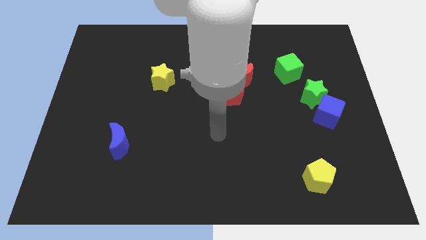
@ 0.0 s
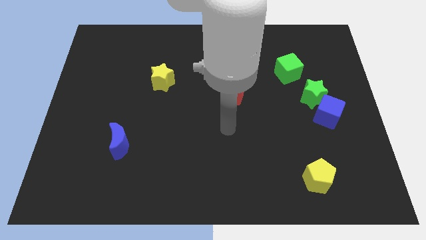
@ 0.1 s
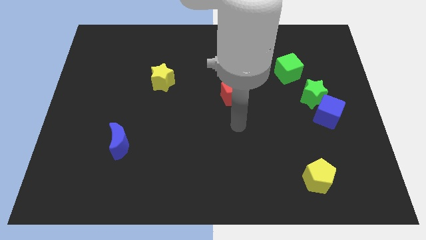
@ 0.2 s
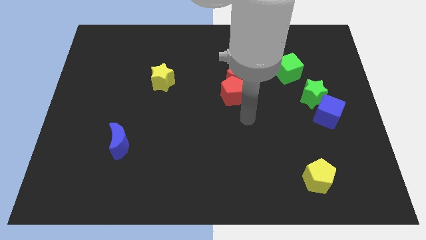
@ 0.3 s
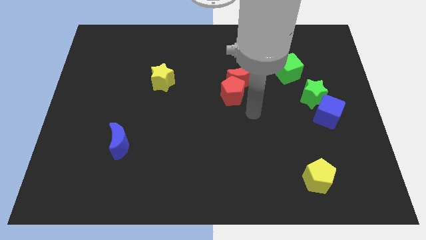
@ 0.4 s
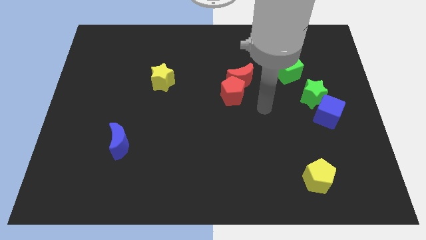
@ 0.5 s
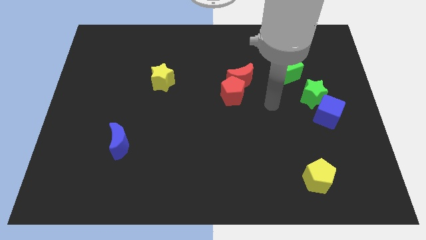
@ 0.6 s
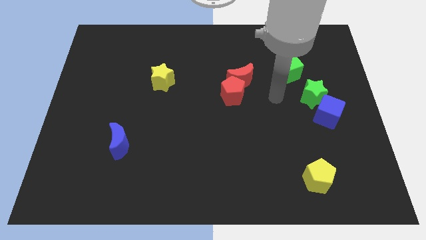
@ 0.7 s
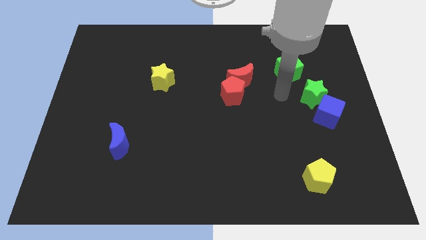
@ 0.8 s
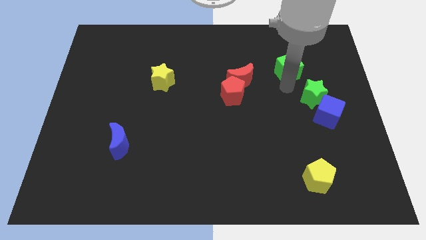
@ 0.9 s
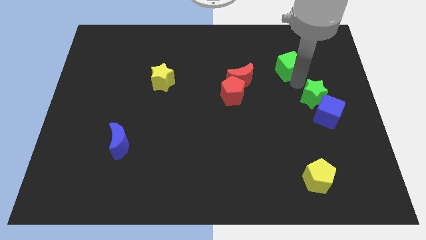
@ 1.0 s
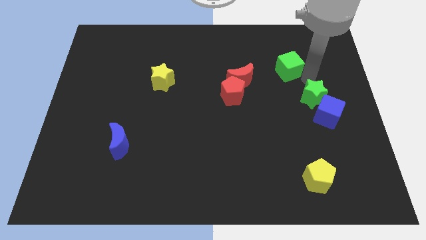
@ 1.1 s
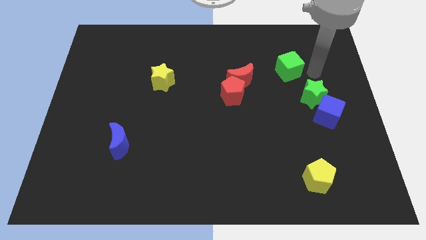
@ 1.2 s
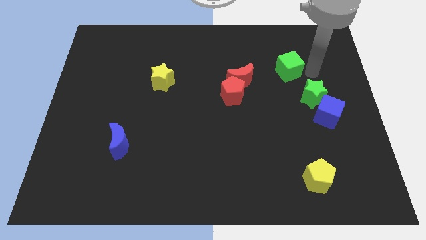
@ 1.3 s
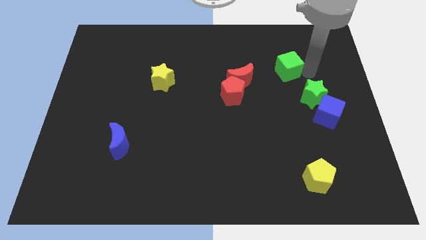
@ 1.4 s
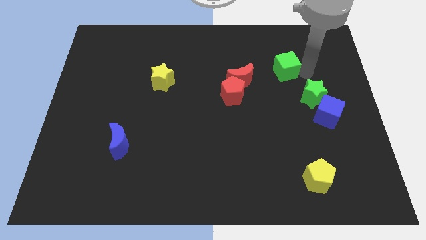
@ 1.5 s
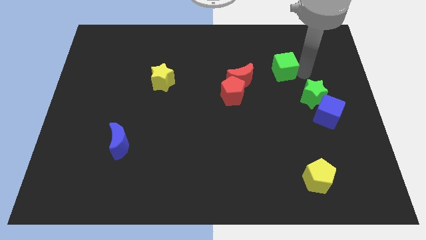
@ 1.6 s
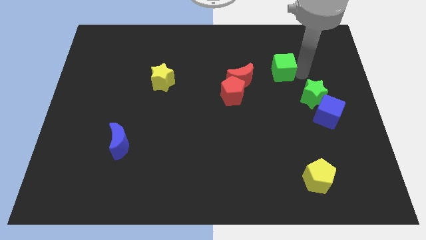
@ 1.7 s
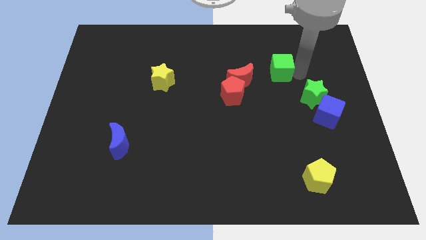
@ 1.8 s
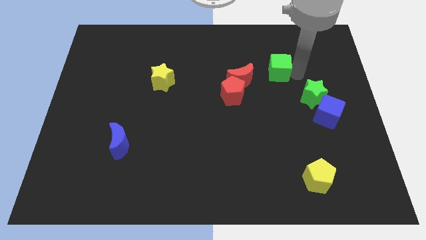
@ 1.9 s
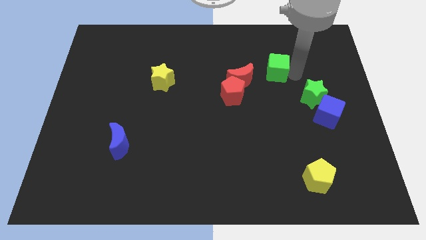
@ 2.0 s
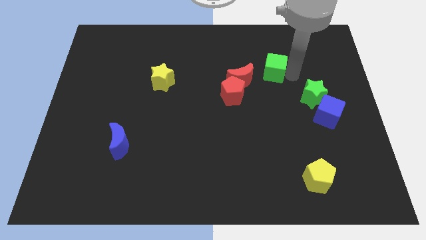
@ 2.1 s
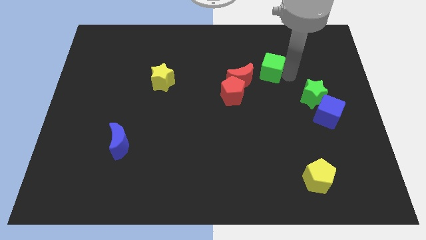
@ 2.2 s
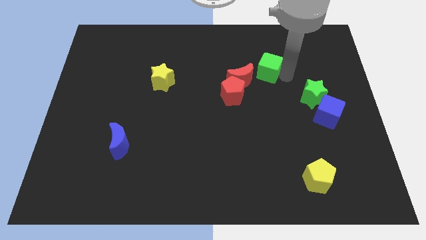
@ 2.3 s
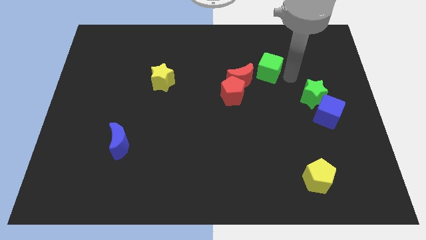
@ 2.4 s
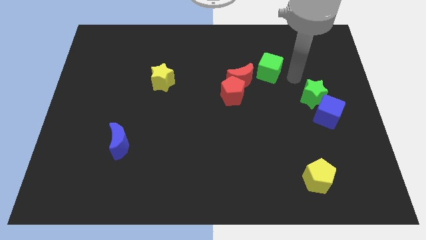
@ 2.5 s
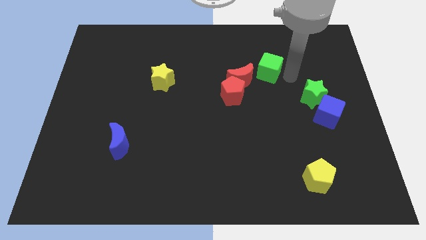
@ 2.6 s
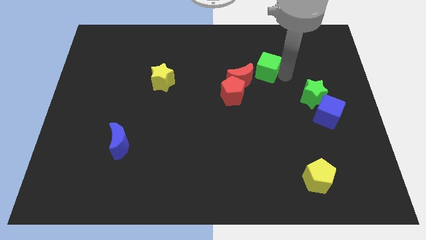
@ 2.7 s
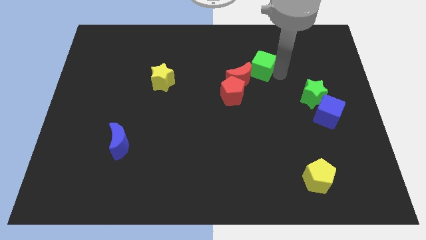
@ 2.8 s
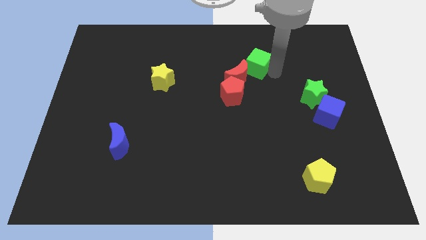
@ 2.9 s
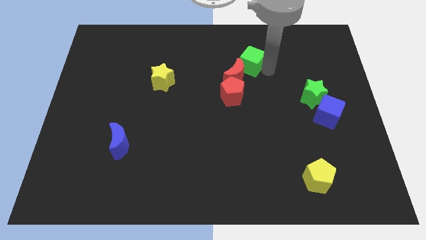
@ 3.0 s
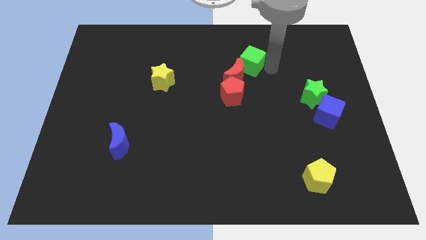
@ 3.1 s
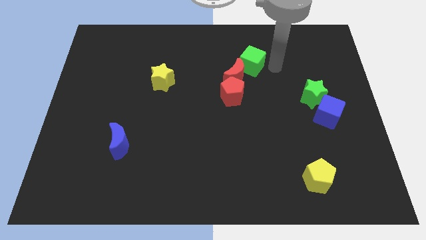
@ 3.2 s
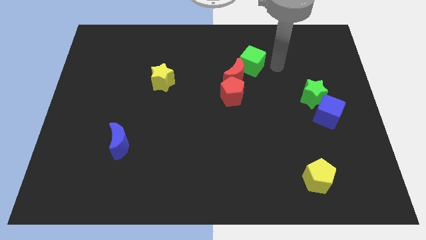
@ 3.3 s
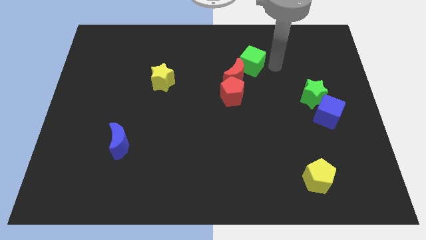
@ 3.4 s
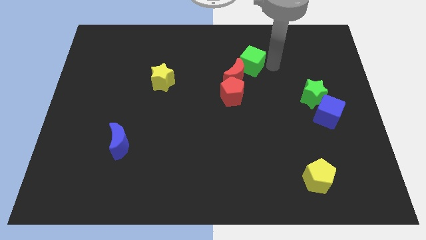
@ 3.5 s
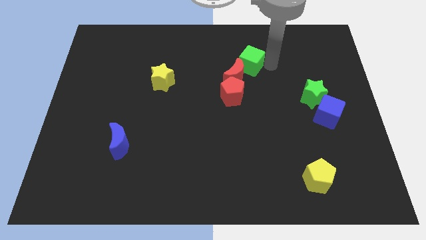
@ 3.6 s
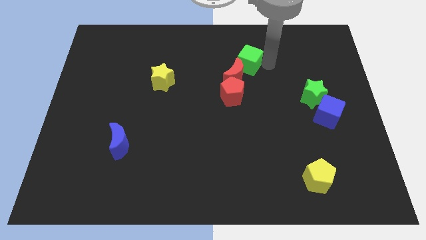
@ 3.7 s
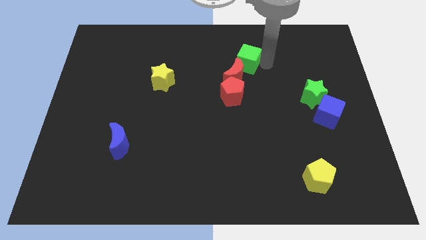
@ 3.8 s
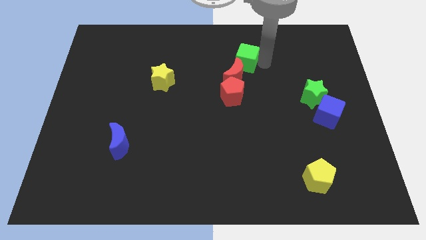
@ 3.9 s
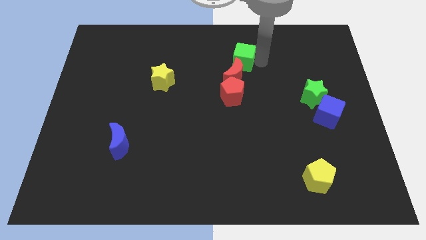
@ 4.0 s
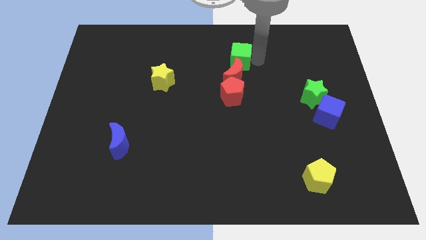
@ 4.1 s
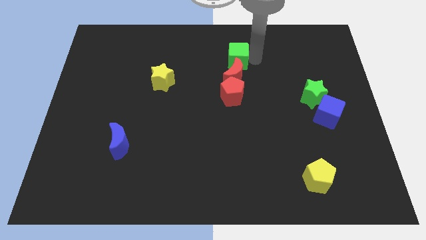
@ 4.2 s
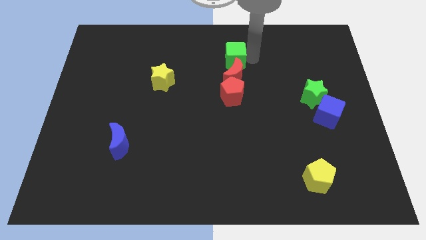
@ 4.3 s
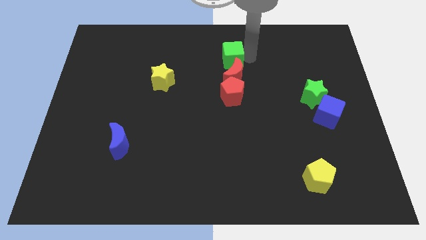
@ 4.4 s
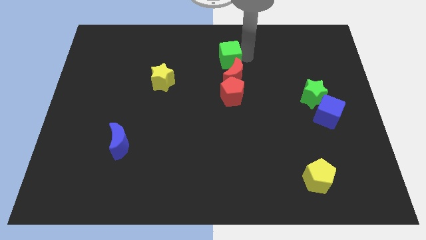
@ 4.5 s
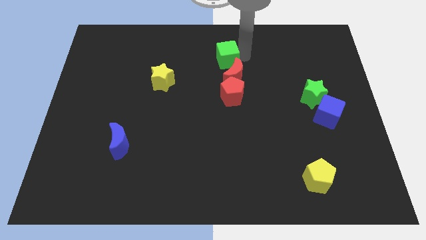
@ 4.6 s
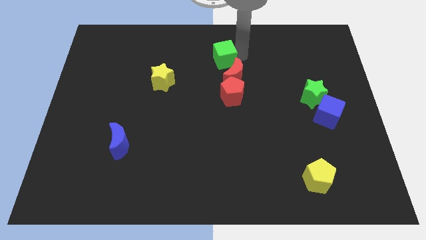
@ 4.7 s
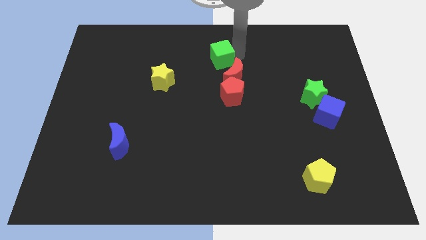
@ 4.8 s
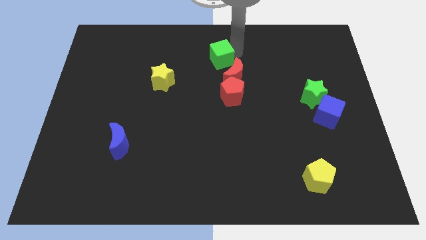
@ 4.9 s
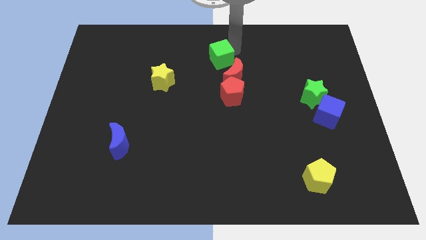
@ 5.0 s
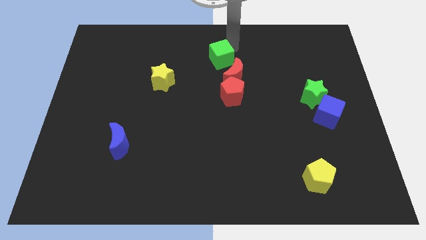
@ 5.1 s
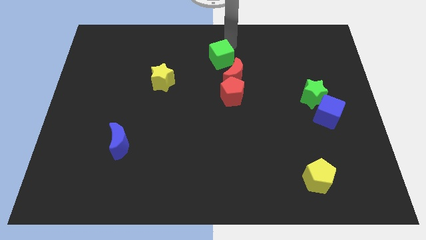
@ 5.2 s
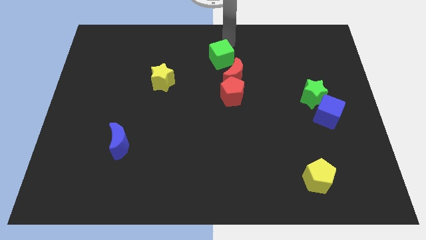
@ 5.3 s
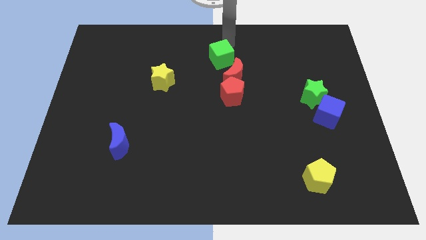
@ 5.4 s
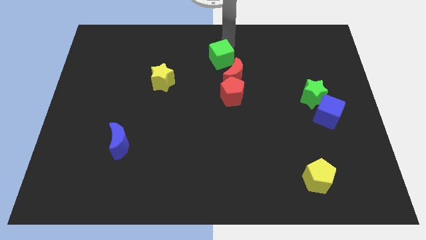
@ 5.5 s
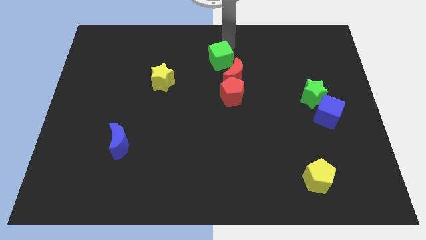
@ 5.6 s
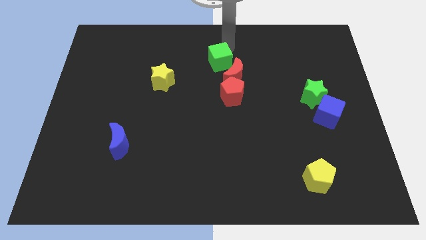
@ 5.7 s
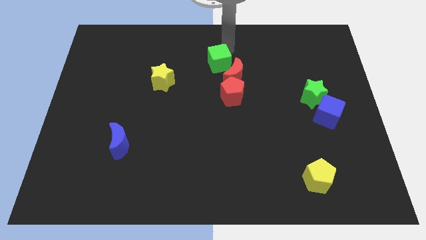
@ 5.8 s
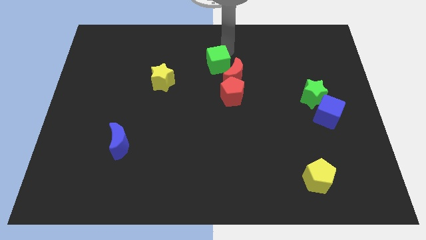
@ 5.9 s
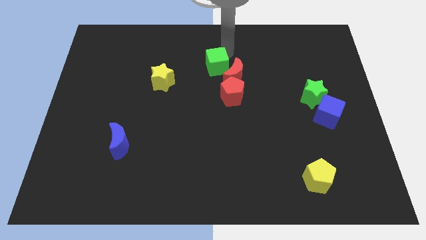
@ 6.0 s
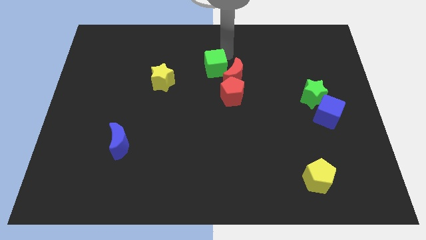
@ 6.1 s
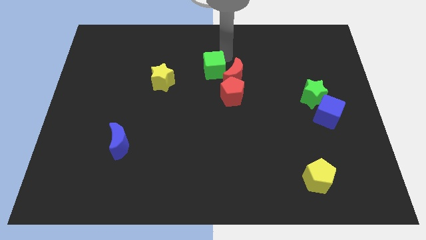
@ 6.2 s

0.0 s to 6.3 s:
put the green cube to the right side of the yellow star
